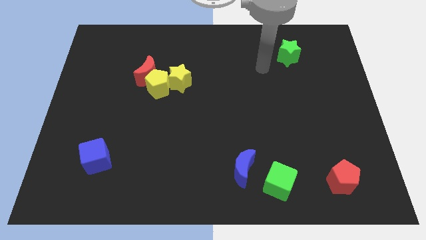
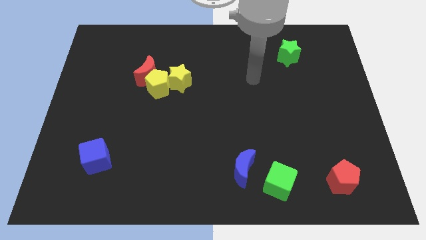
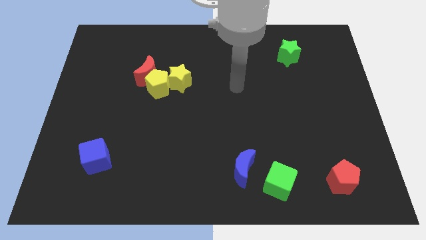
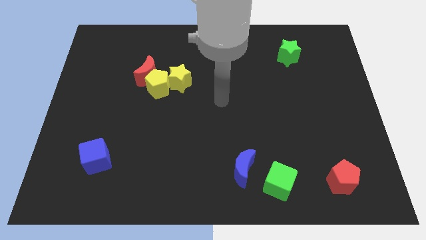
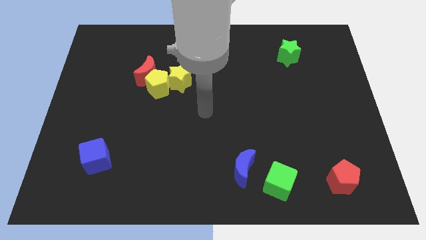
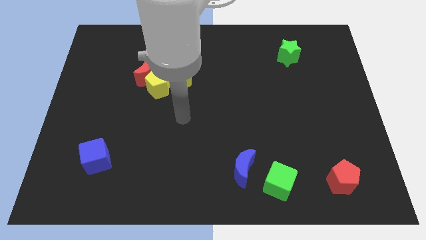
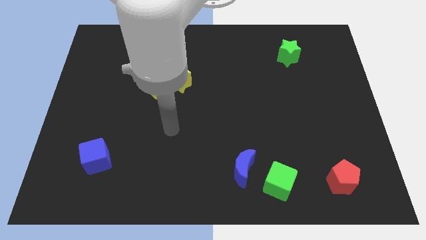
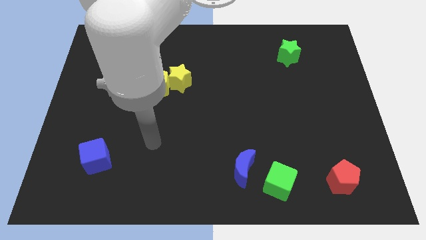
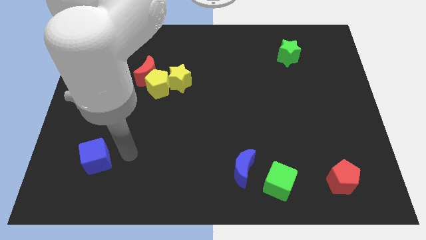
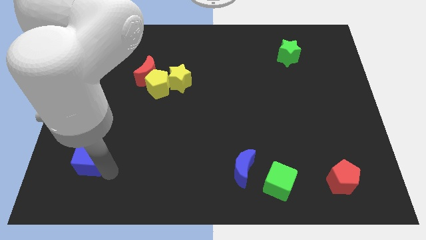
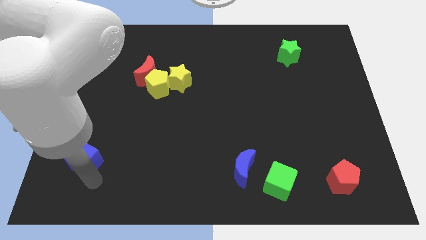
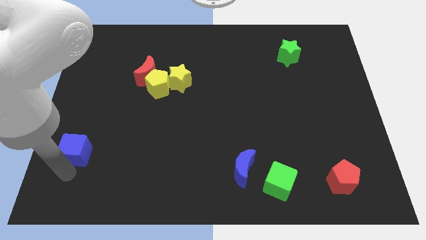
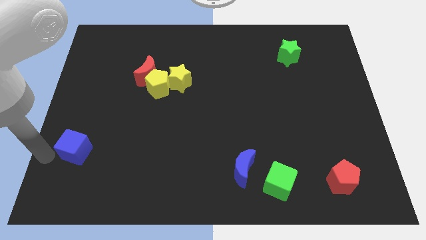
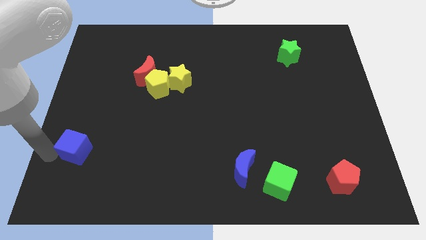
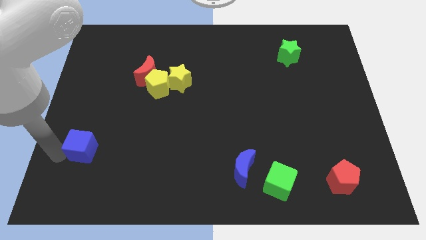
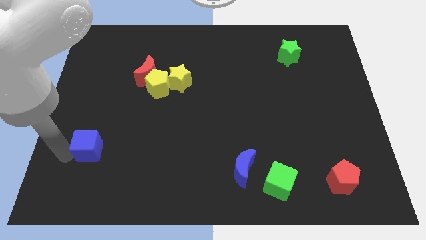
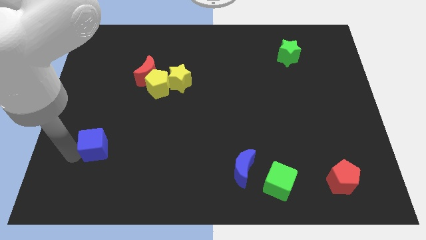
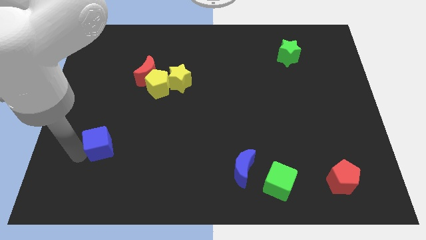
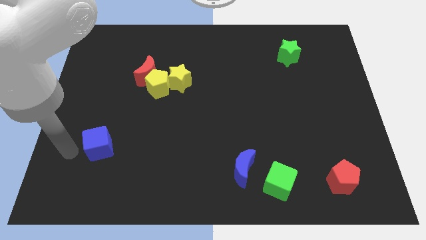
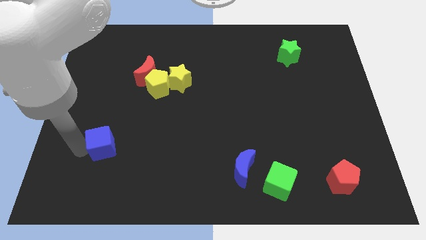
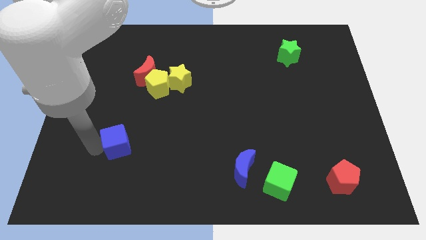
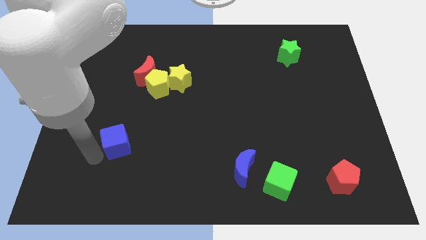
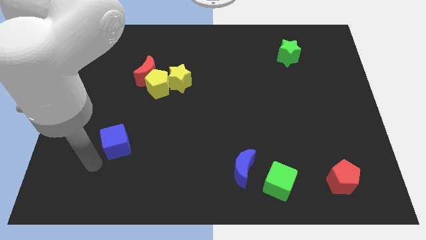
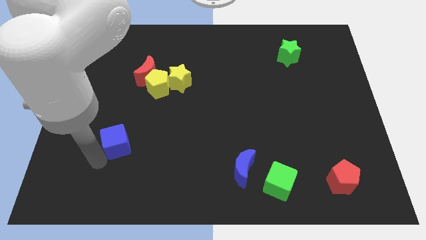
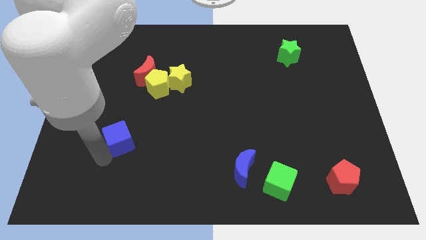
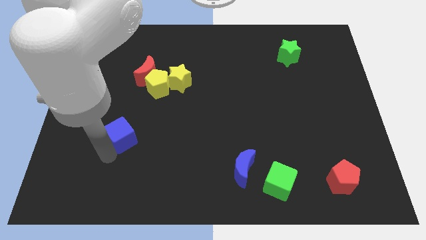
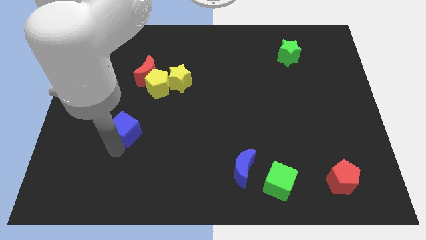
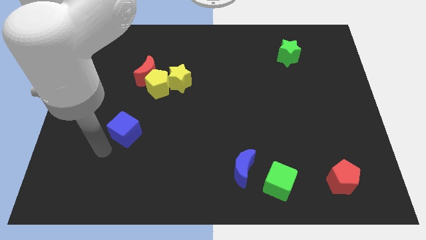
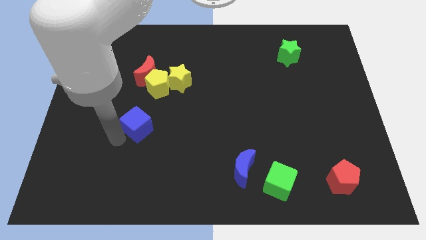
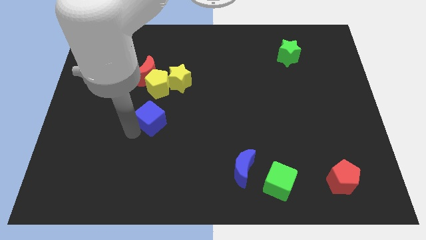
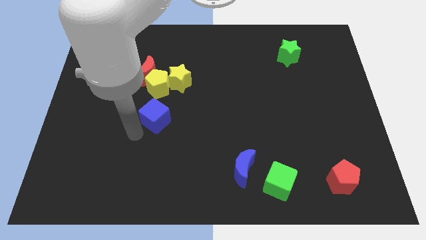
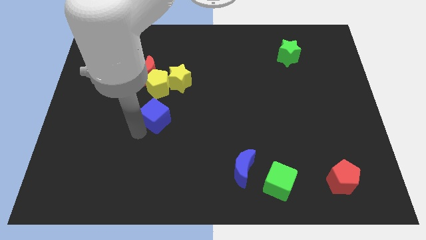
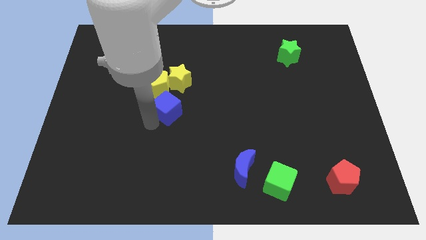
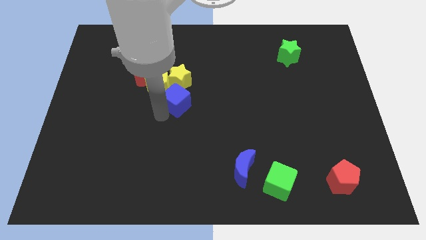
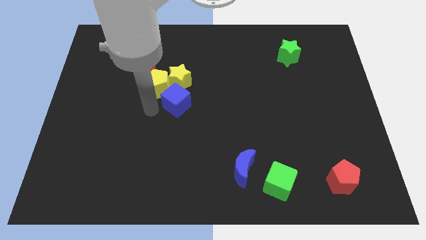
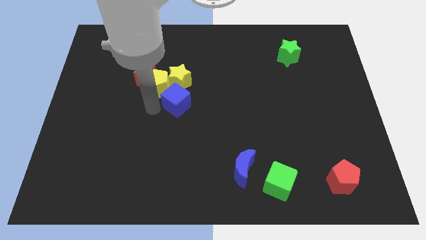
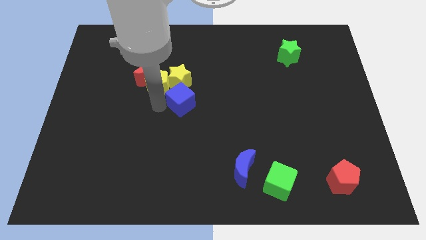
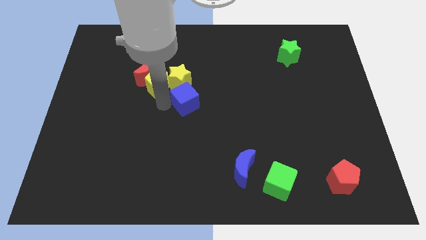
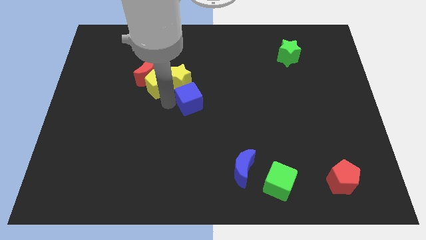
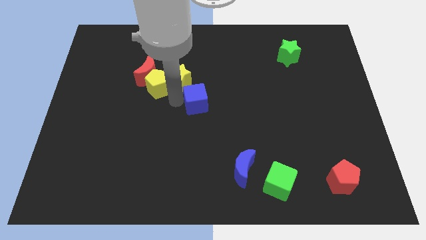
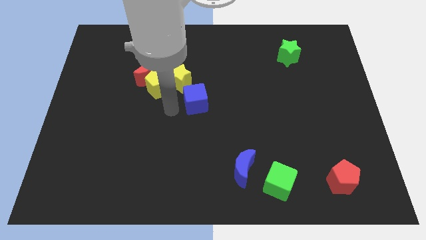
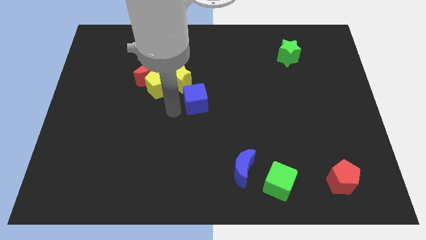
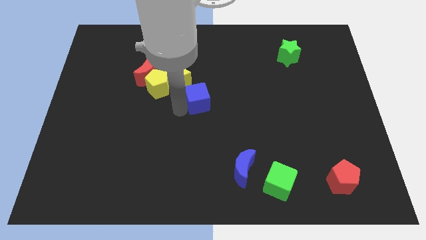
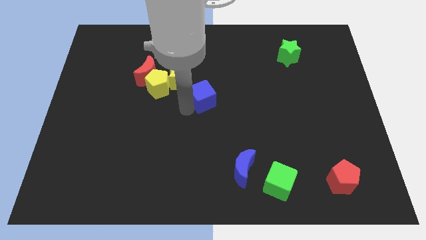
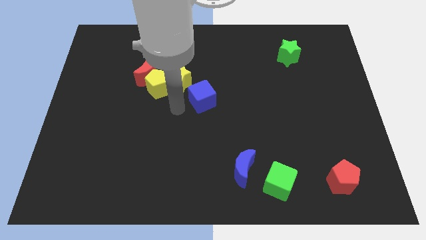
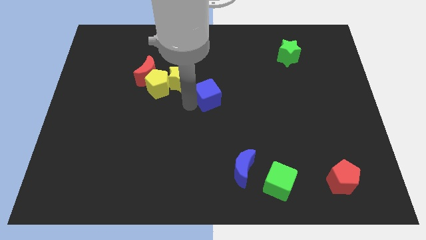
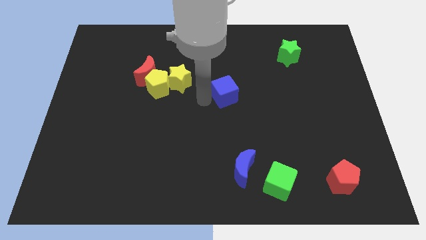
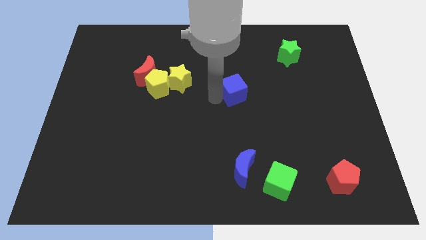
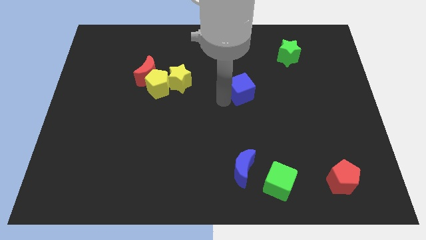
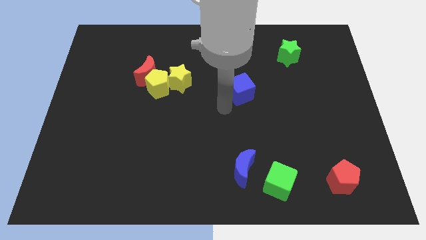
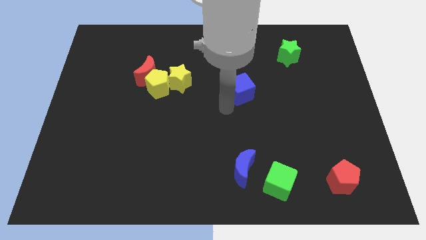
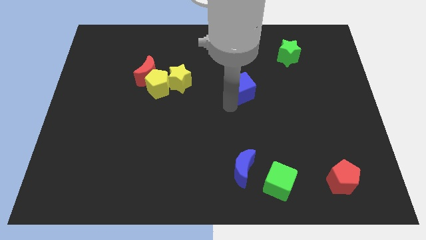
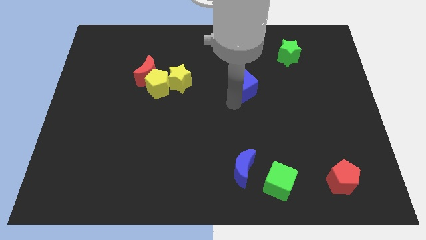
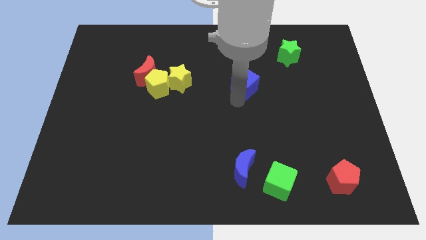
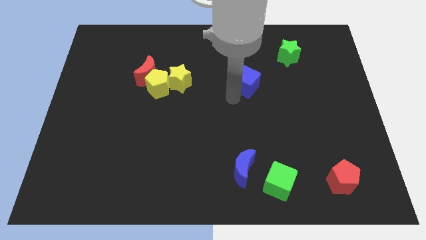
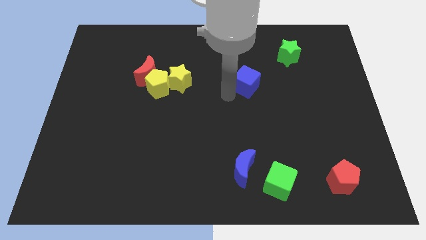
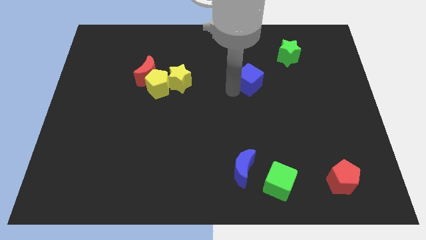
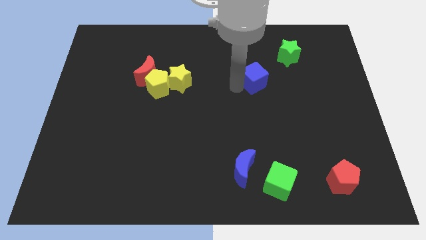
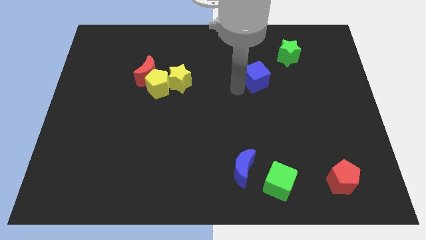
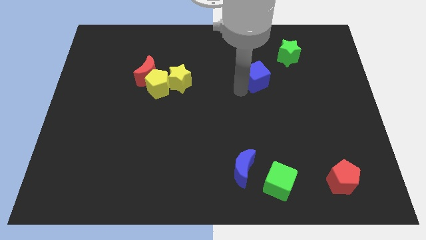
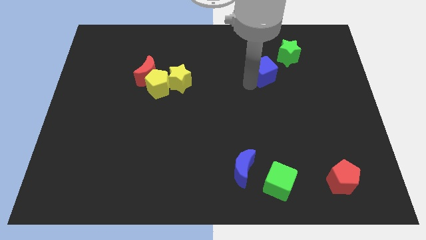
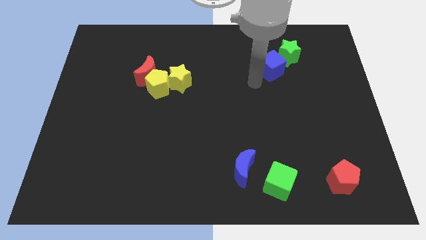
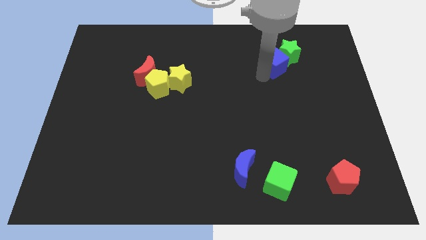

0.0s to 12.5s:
move the blue cube next to the green star
